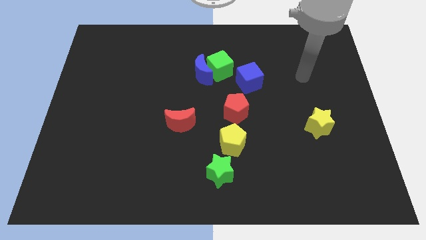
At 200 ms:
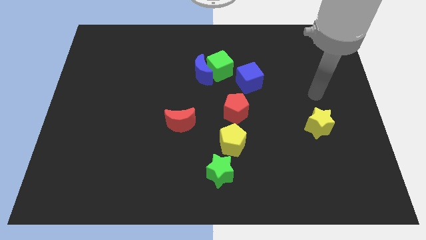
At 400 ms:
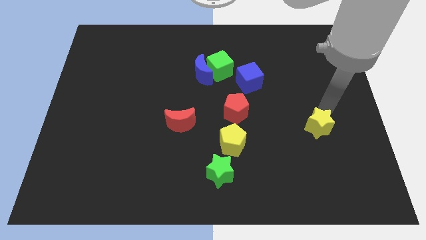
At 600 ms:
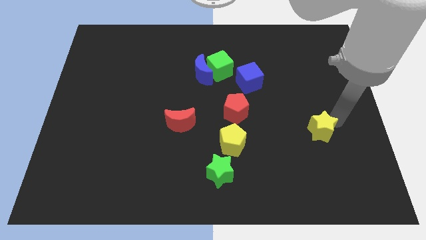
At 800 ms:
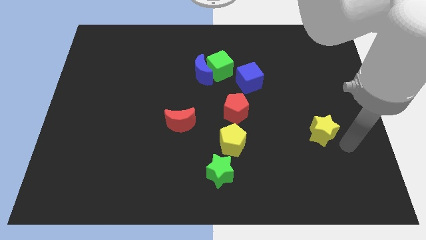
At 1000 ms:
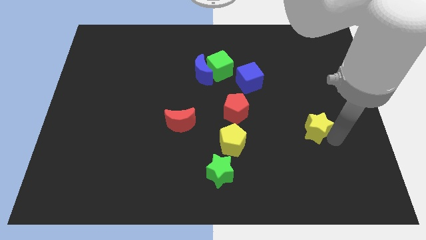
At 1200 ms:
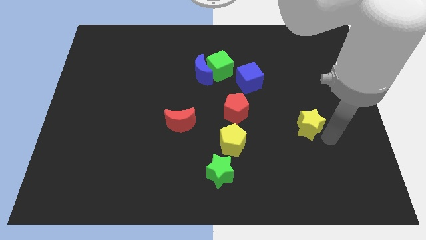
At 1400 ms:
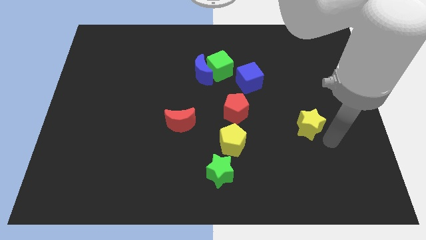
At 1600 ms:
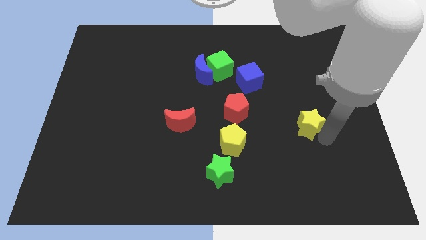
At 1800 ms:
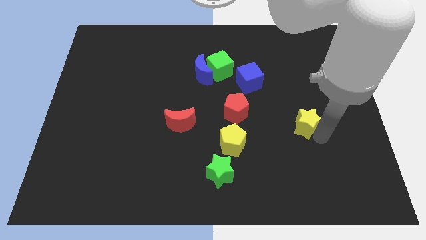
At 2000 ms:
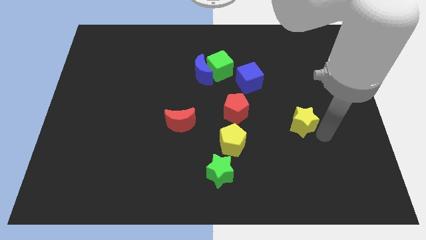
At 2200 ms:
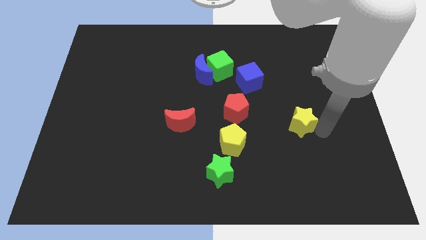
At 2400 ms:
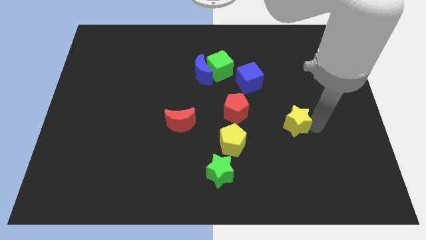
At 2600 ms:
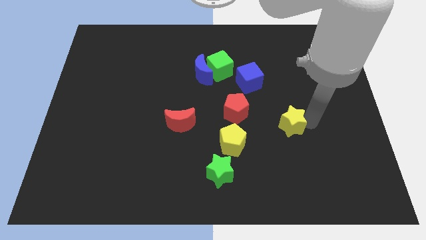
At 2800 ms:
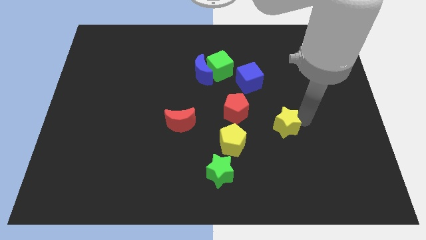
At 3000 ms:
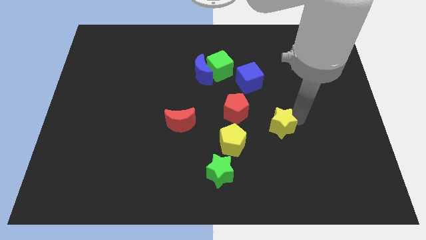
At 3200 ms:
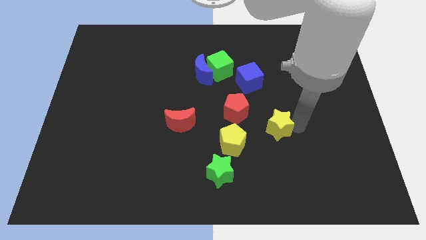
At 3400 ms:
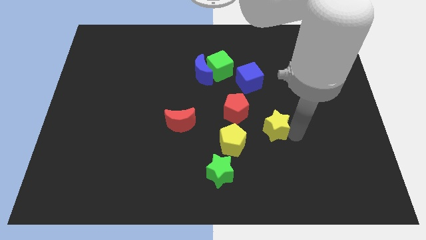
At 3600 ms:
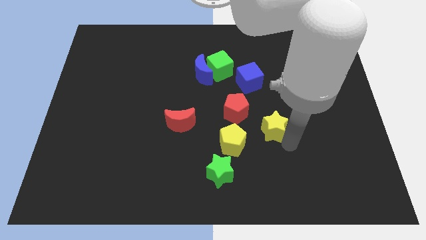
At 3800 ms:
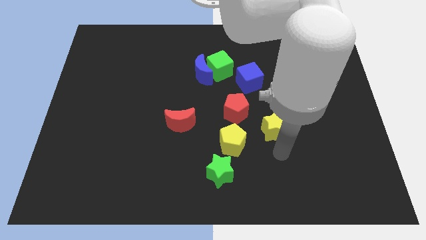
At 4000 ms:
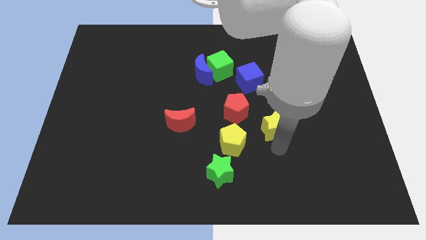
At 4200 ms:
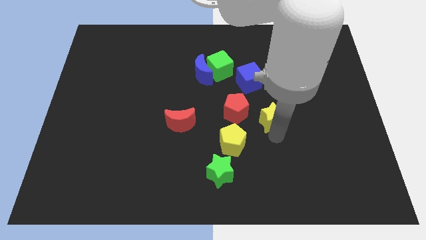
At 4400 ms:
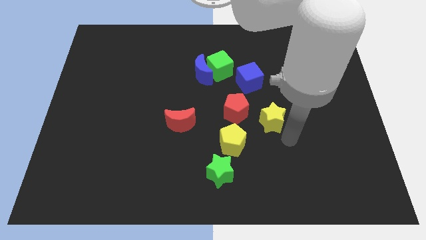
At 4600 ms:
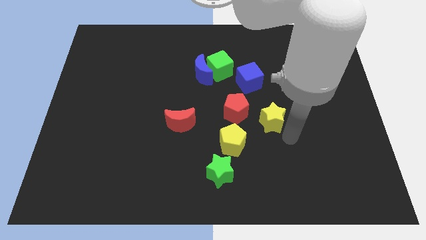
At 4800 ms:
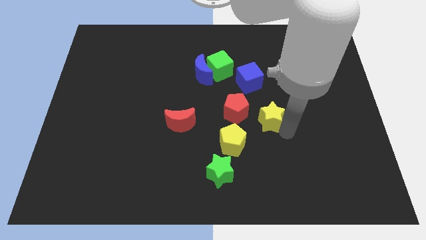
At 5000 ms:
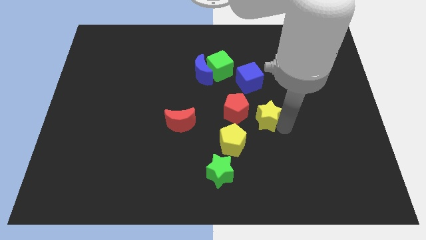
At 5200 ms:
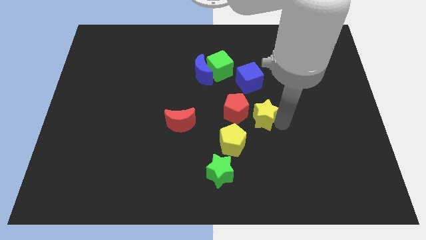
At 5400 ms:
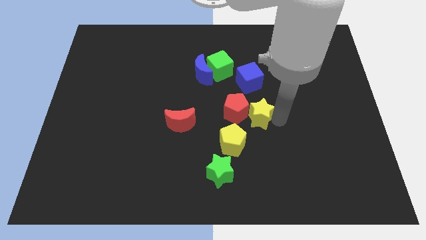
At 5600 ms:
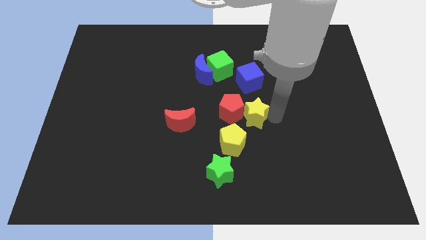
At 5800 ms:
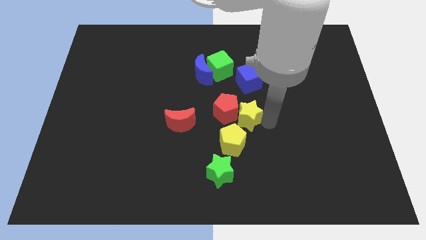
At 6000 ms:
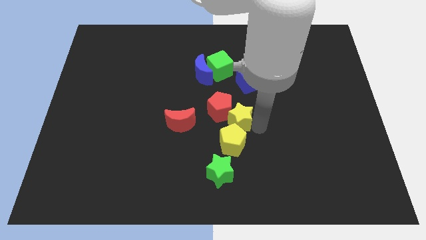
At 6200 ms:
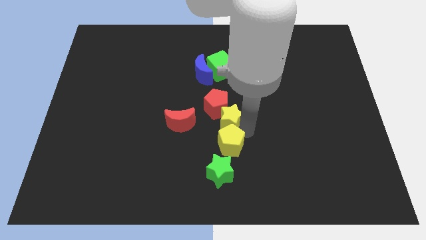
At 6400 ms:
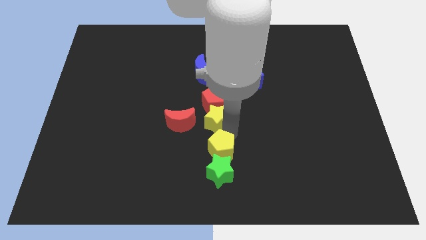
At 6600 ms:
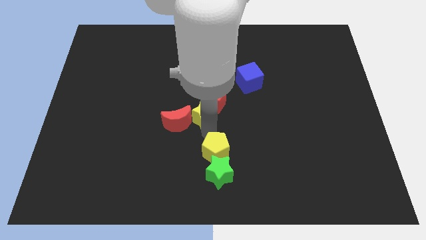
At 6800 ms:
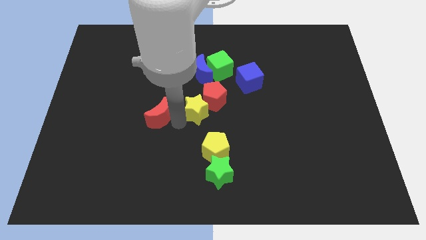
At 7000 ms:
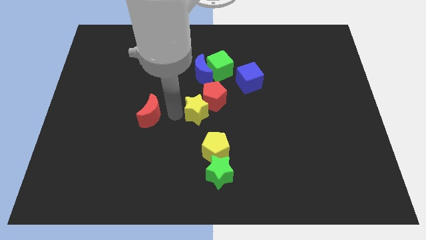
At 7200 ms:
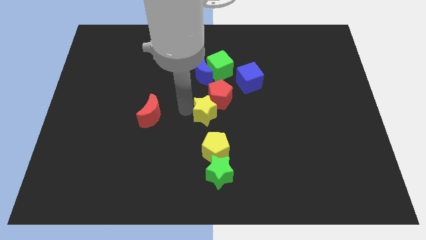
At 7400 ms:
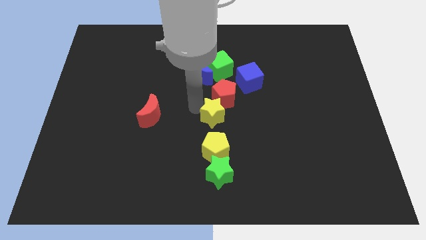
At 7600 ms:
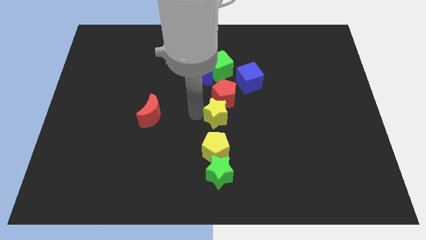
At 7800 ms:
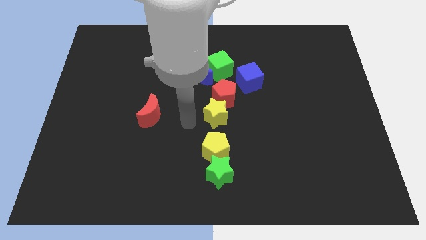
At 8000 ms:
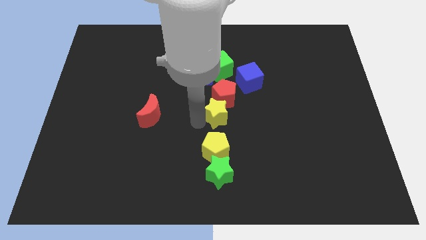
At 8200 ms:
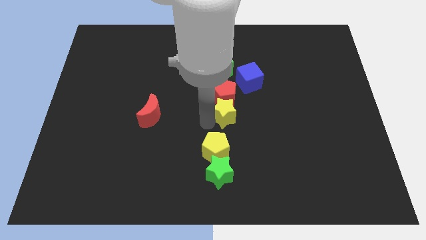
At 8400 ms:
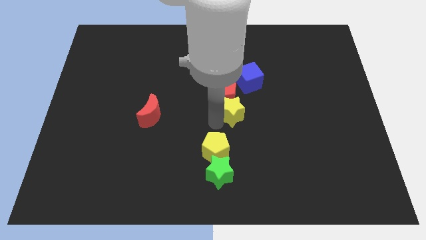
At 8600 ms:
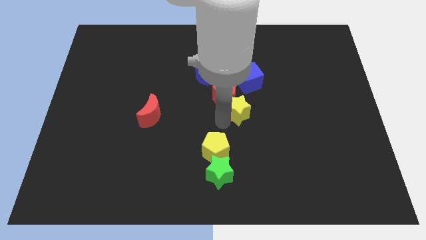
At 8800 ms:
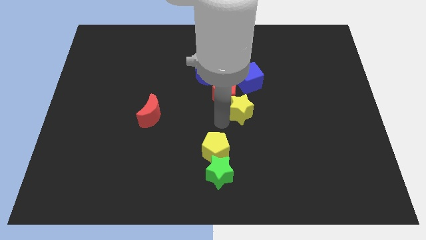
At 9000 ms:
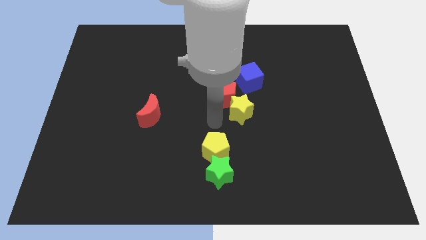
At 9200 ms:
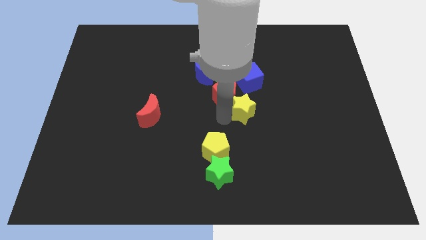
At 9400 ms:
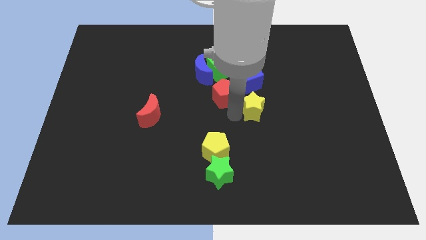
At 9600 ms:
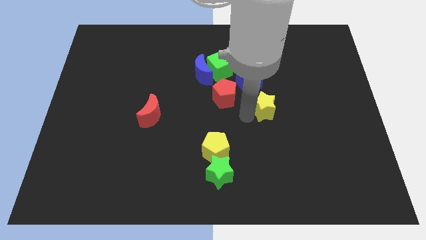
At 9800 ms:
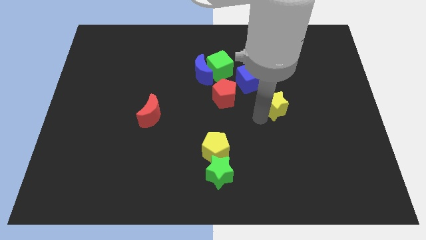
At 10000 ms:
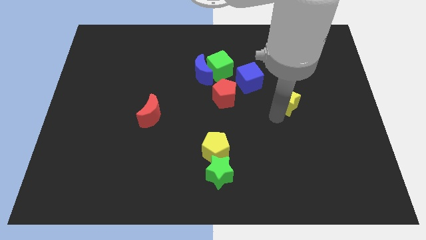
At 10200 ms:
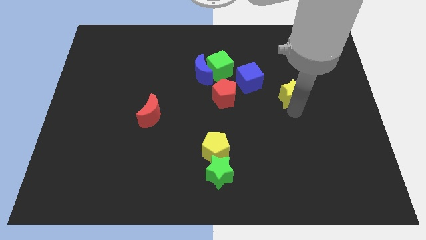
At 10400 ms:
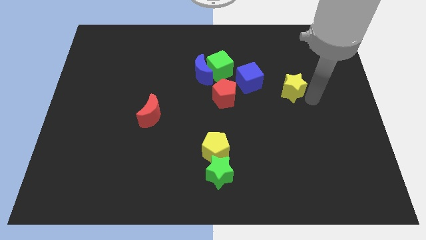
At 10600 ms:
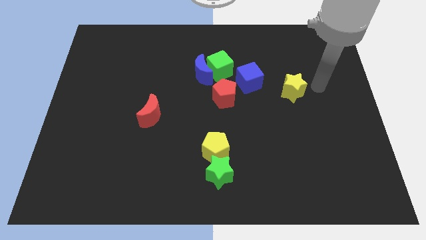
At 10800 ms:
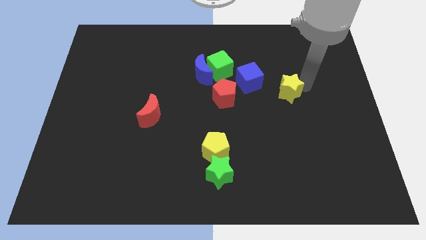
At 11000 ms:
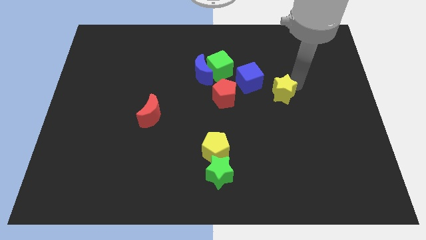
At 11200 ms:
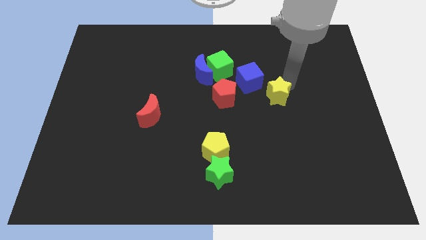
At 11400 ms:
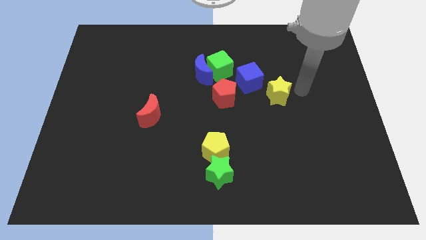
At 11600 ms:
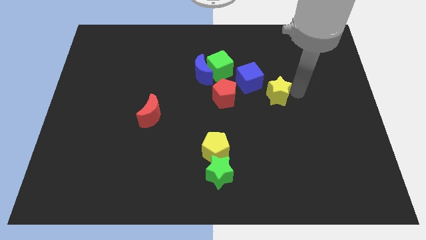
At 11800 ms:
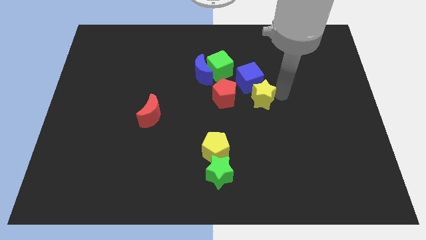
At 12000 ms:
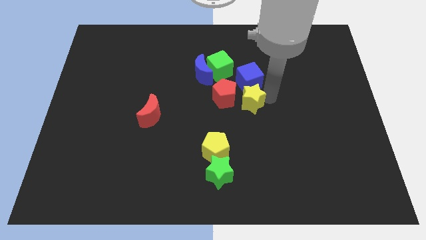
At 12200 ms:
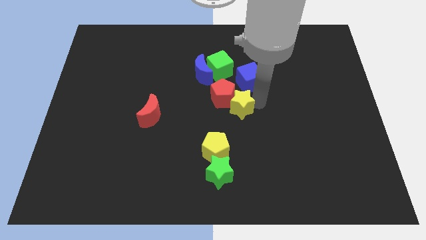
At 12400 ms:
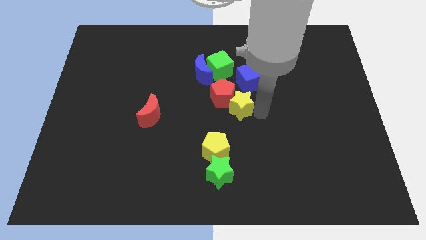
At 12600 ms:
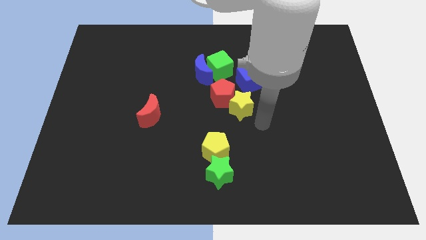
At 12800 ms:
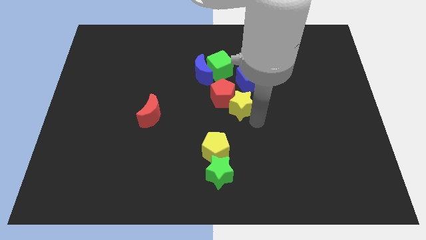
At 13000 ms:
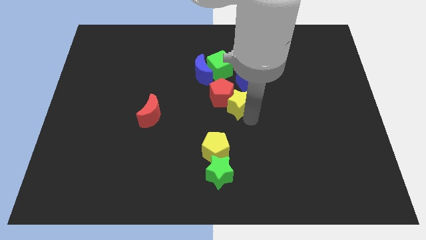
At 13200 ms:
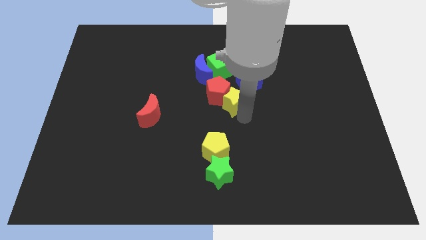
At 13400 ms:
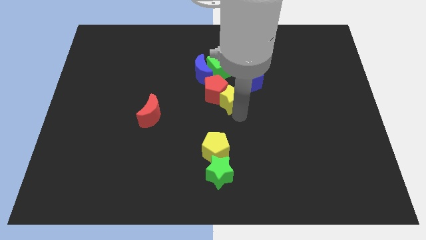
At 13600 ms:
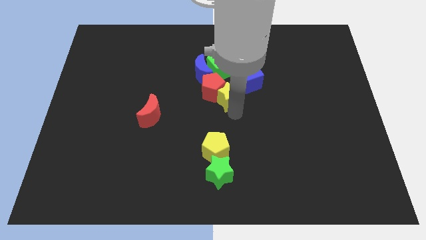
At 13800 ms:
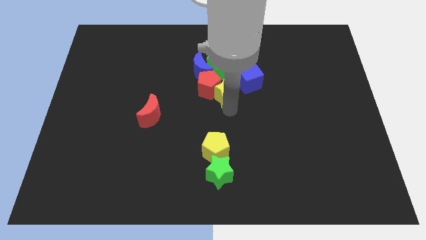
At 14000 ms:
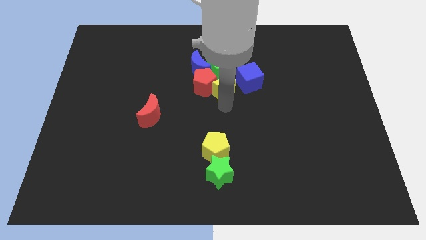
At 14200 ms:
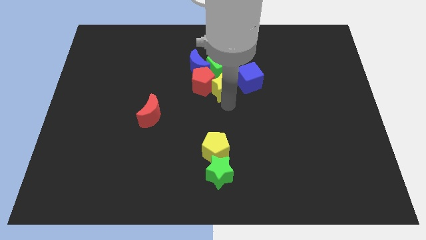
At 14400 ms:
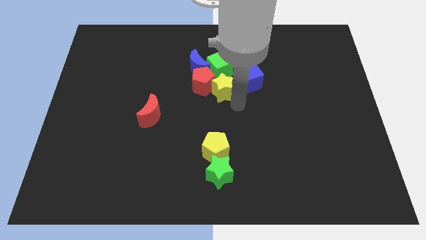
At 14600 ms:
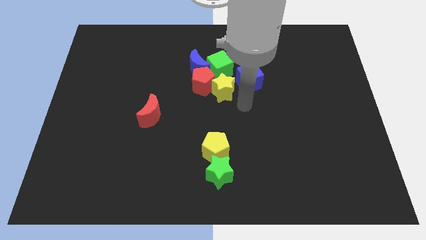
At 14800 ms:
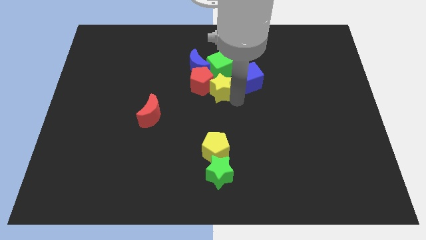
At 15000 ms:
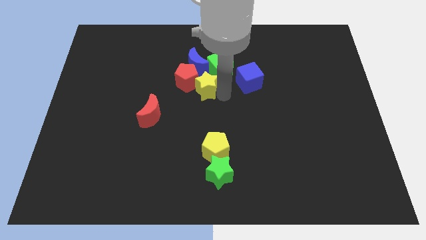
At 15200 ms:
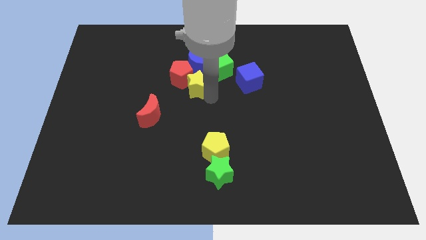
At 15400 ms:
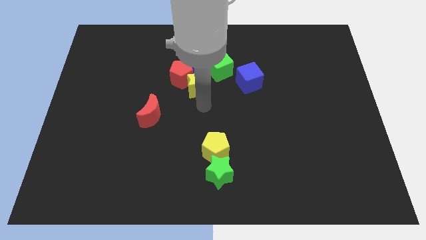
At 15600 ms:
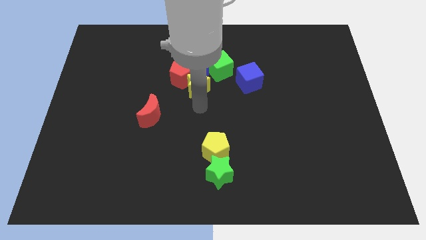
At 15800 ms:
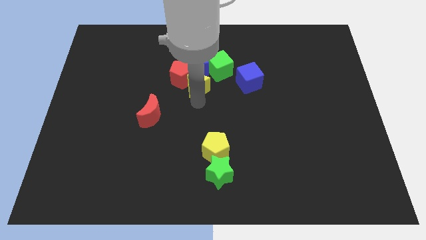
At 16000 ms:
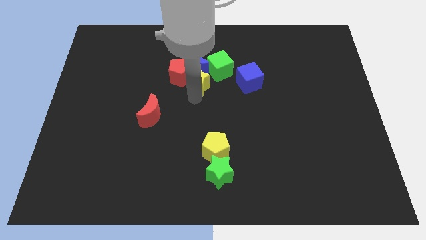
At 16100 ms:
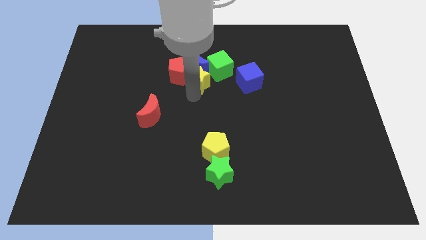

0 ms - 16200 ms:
move the yellow star close to the blue moon
